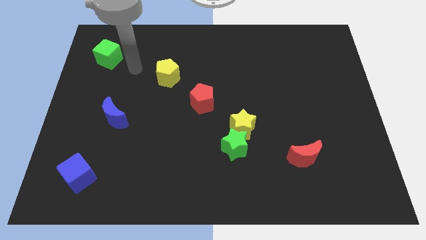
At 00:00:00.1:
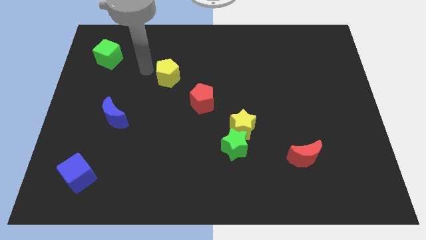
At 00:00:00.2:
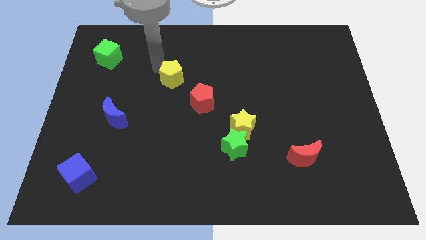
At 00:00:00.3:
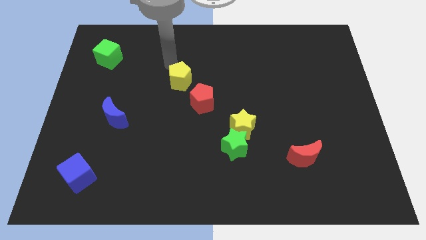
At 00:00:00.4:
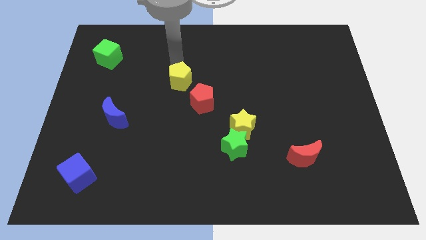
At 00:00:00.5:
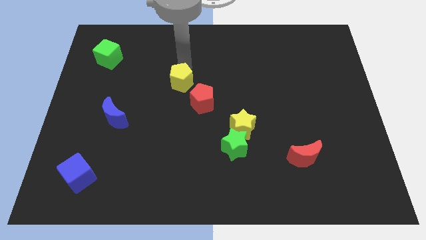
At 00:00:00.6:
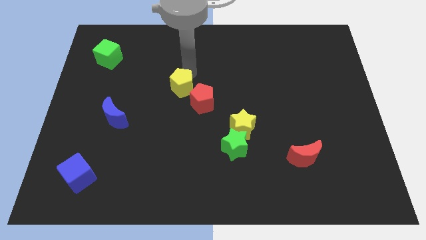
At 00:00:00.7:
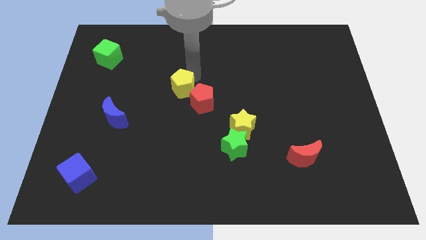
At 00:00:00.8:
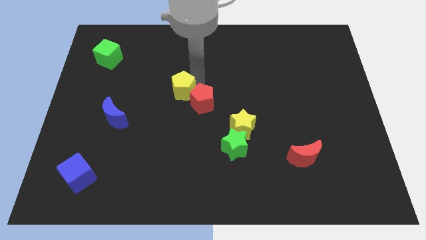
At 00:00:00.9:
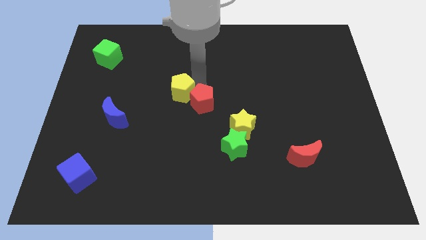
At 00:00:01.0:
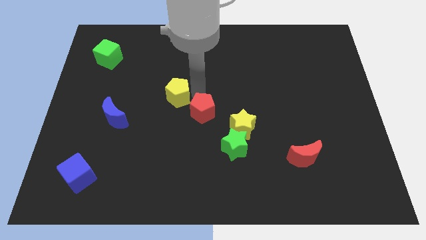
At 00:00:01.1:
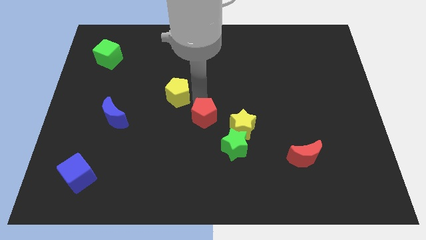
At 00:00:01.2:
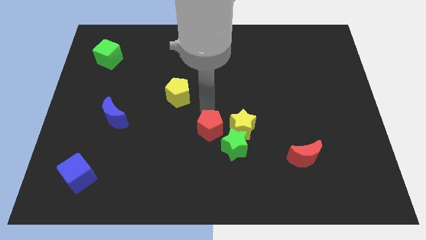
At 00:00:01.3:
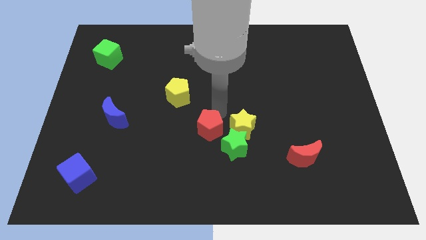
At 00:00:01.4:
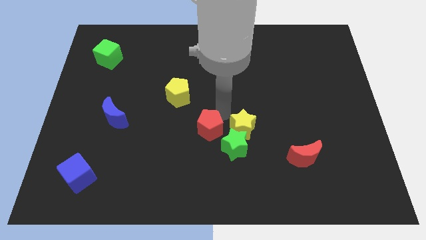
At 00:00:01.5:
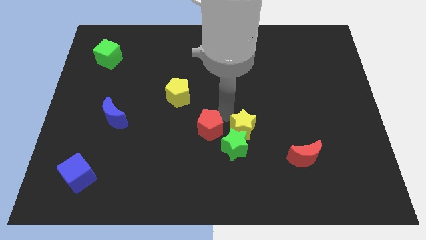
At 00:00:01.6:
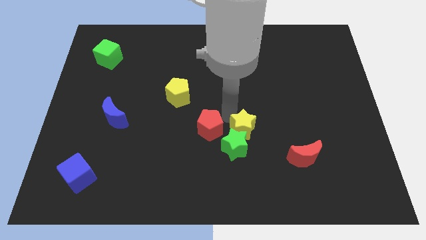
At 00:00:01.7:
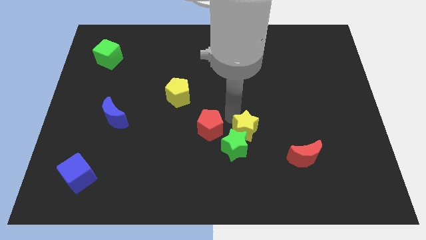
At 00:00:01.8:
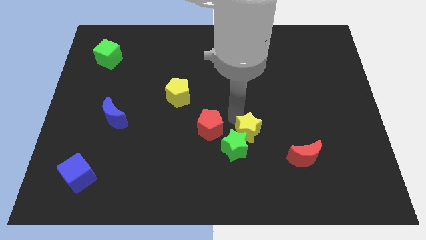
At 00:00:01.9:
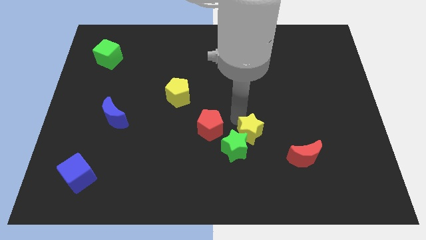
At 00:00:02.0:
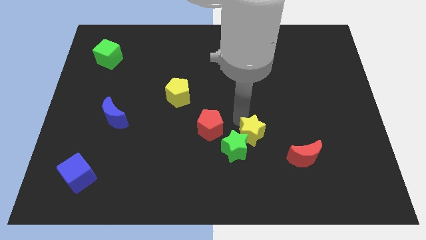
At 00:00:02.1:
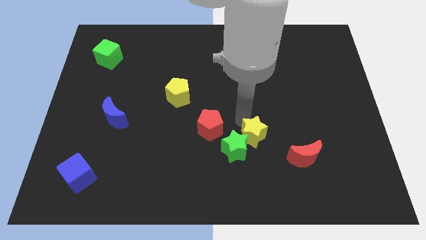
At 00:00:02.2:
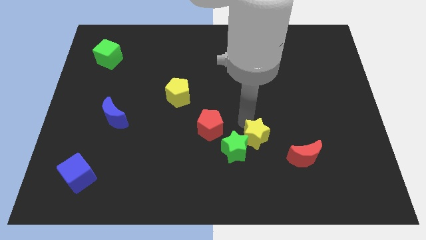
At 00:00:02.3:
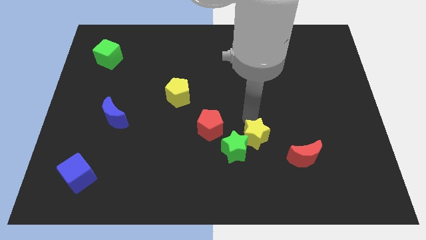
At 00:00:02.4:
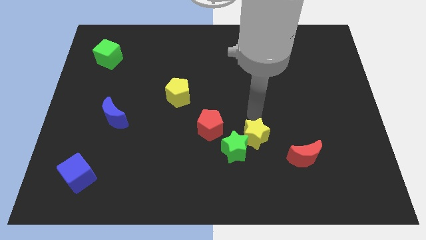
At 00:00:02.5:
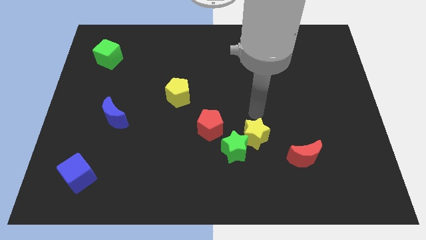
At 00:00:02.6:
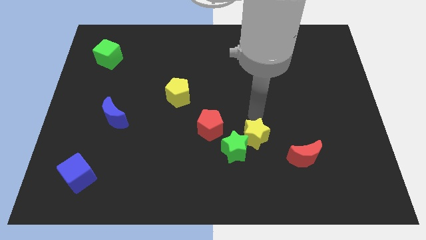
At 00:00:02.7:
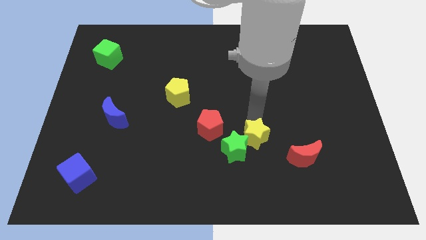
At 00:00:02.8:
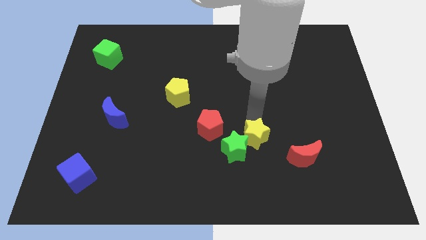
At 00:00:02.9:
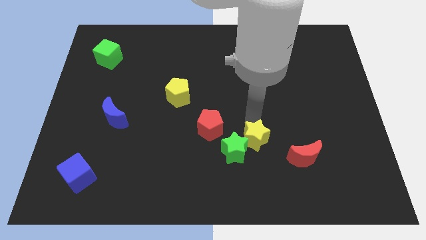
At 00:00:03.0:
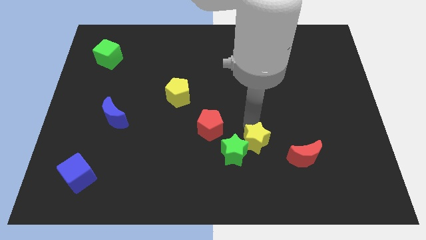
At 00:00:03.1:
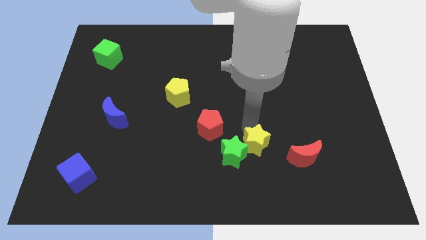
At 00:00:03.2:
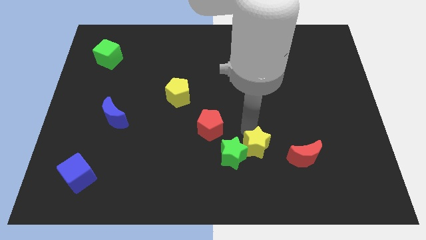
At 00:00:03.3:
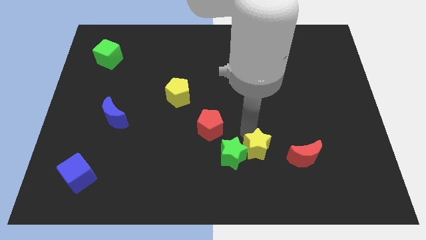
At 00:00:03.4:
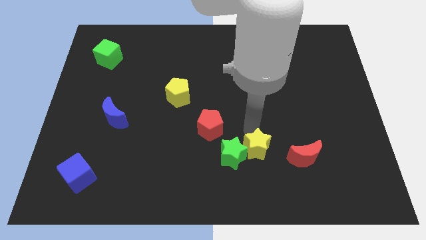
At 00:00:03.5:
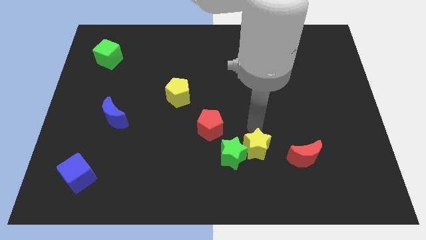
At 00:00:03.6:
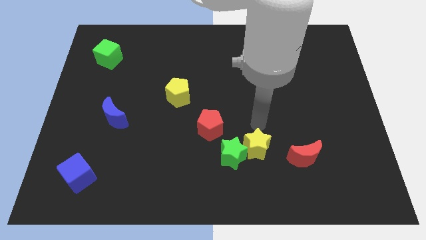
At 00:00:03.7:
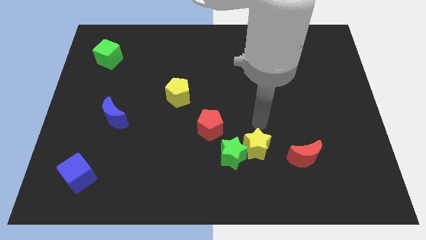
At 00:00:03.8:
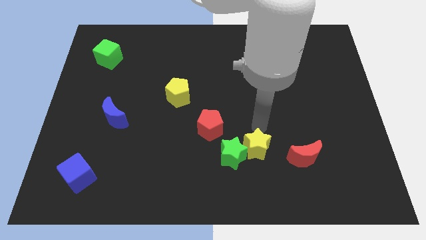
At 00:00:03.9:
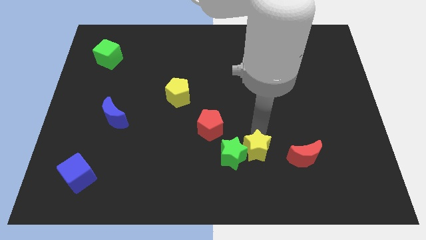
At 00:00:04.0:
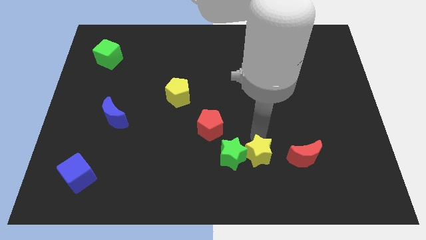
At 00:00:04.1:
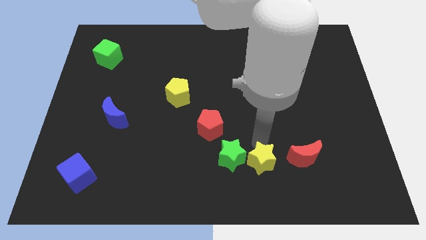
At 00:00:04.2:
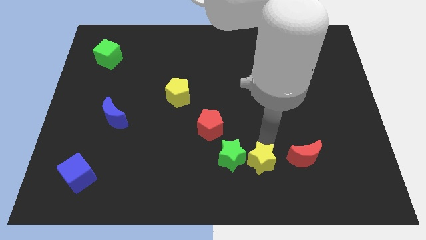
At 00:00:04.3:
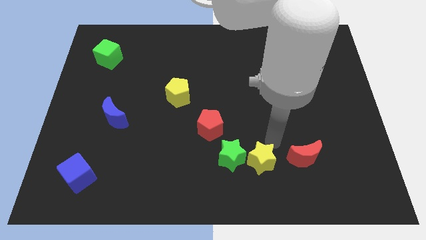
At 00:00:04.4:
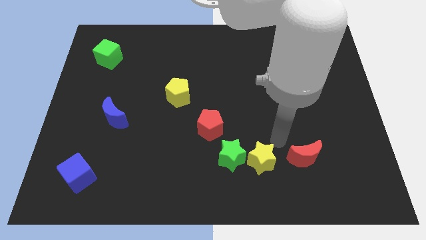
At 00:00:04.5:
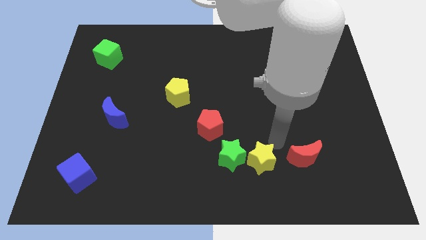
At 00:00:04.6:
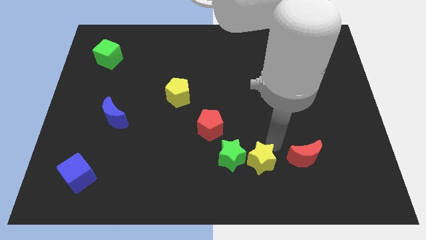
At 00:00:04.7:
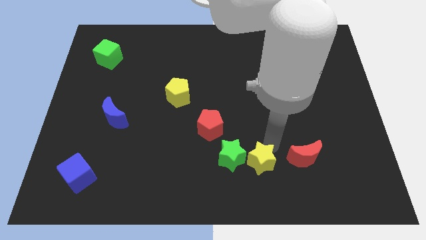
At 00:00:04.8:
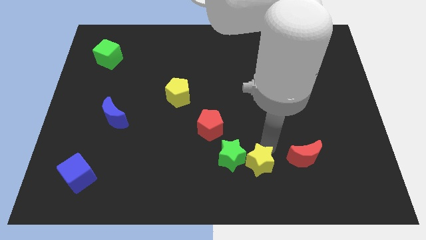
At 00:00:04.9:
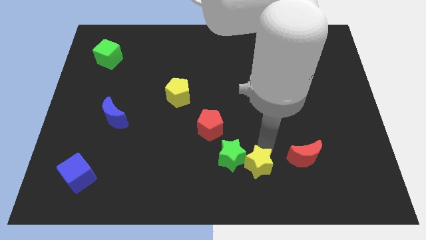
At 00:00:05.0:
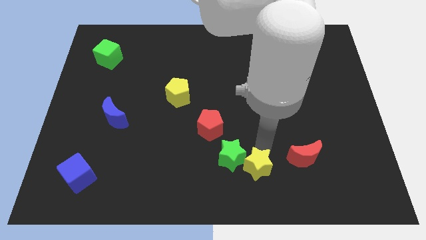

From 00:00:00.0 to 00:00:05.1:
slide the yellow star to the bottom

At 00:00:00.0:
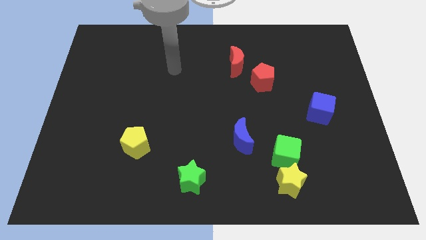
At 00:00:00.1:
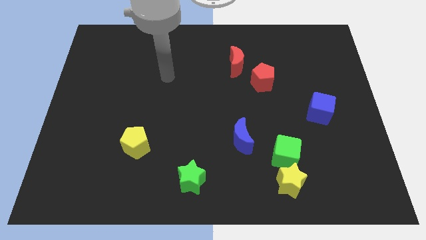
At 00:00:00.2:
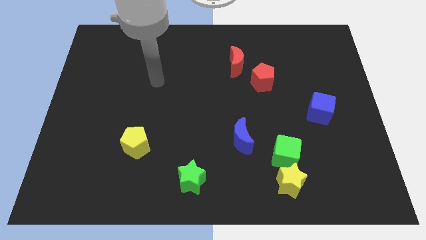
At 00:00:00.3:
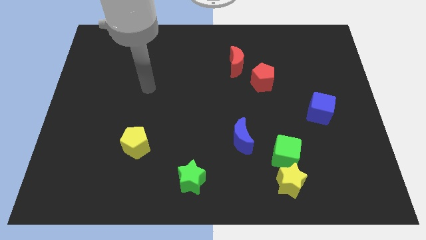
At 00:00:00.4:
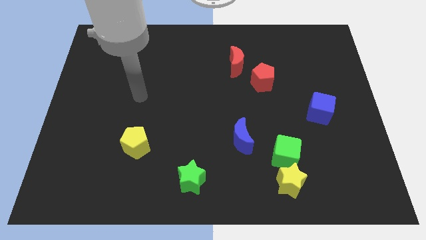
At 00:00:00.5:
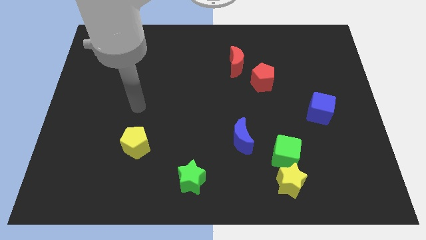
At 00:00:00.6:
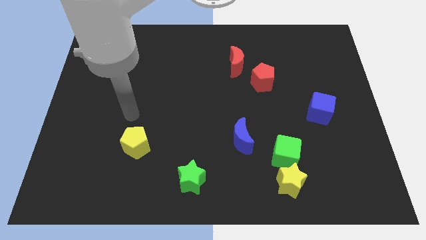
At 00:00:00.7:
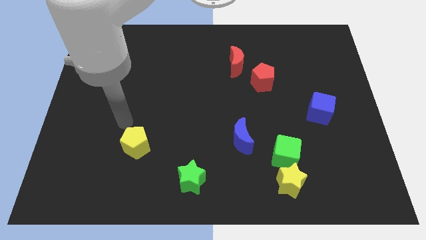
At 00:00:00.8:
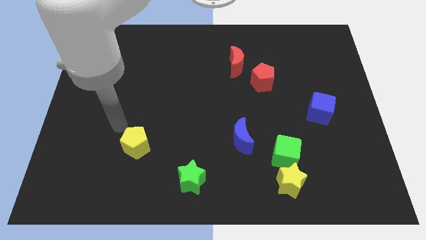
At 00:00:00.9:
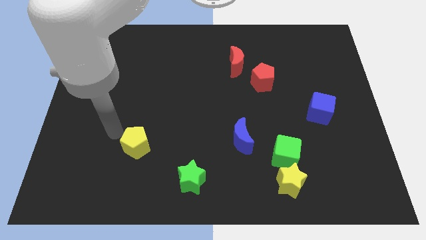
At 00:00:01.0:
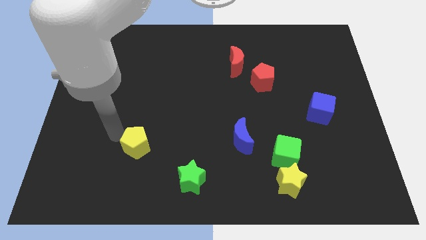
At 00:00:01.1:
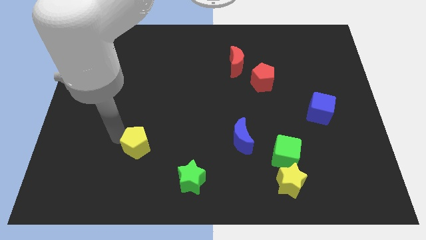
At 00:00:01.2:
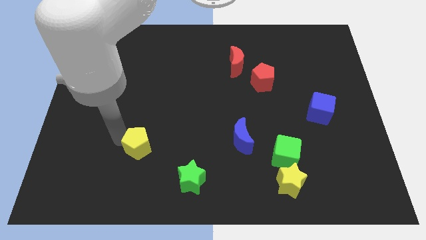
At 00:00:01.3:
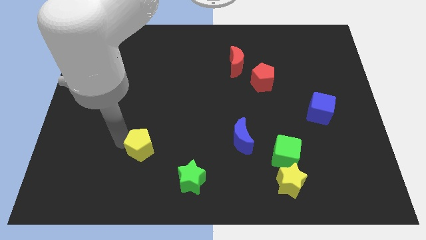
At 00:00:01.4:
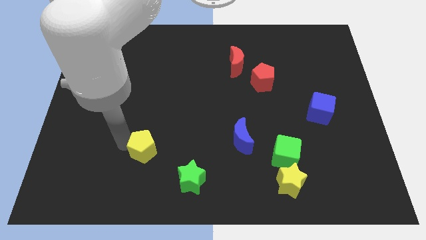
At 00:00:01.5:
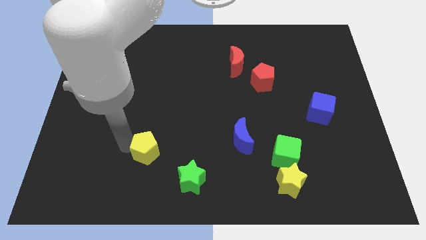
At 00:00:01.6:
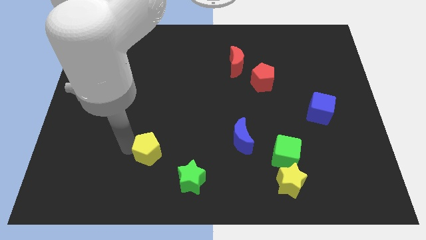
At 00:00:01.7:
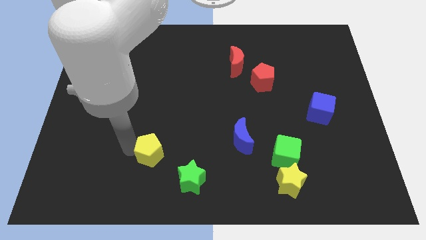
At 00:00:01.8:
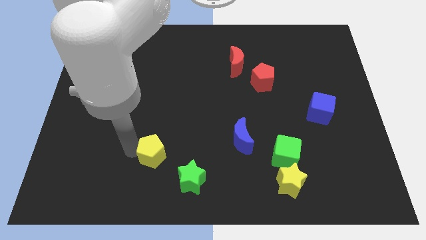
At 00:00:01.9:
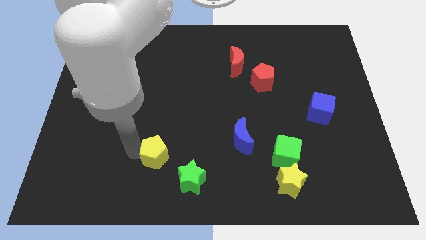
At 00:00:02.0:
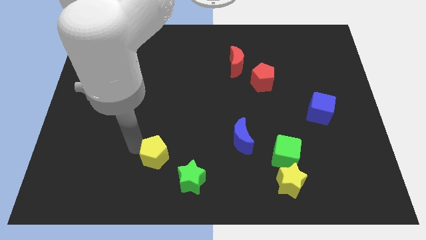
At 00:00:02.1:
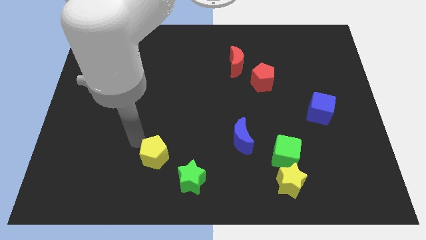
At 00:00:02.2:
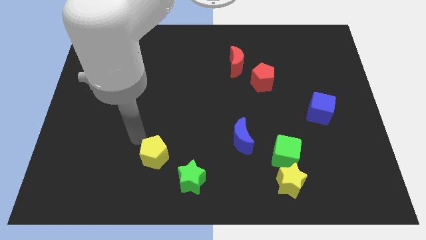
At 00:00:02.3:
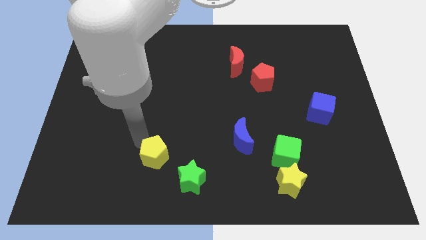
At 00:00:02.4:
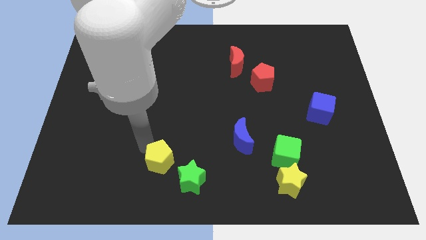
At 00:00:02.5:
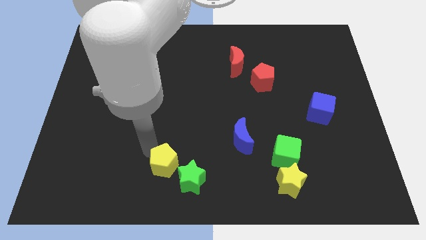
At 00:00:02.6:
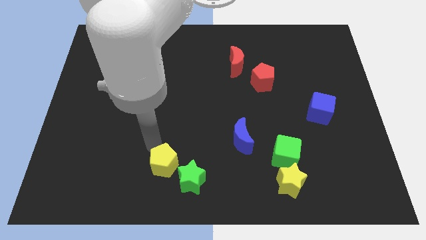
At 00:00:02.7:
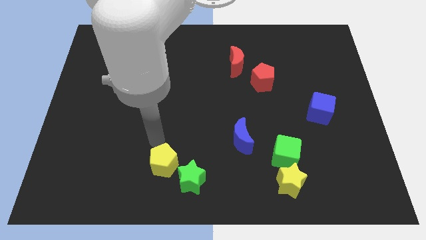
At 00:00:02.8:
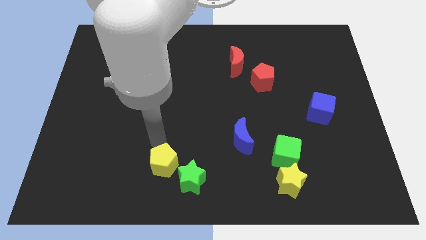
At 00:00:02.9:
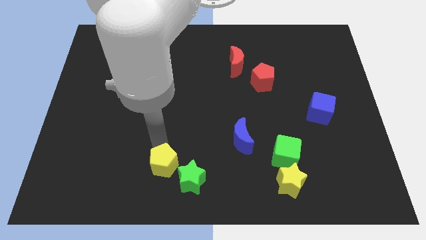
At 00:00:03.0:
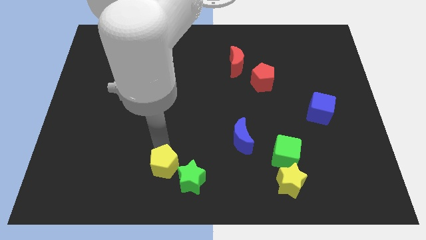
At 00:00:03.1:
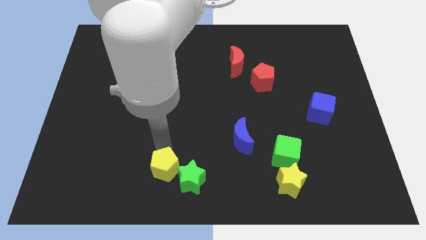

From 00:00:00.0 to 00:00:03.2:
put the yellow pentagon to the bottom
